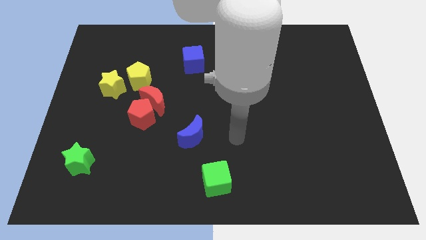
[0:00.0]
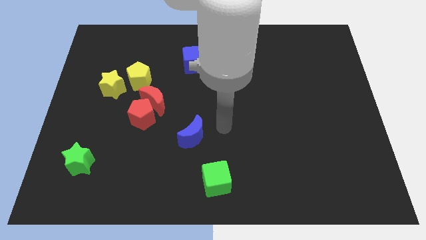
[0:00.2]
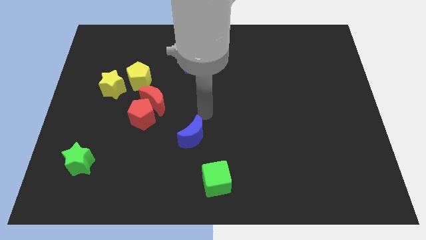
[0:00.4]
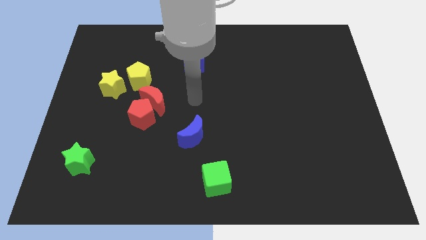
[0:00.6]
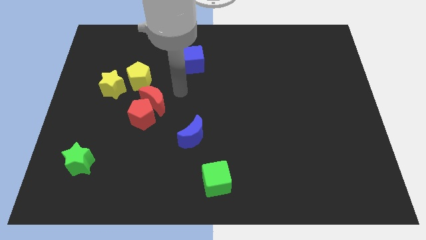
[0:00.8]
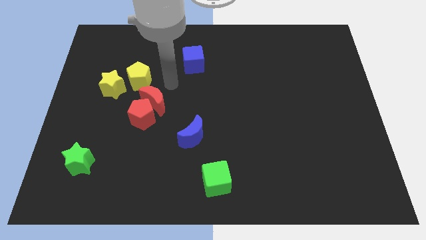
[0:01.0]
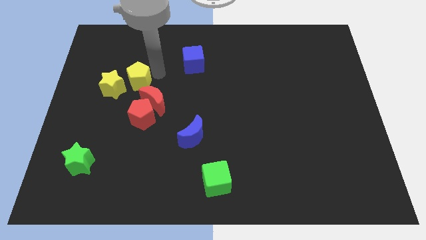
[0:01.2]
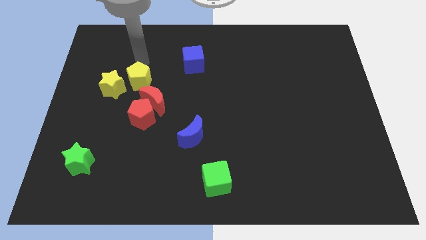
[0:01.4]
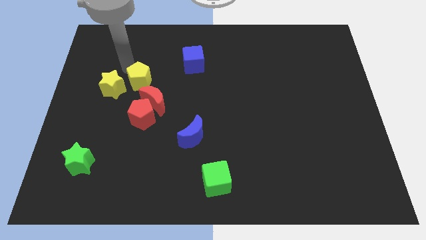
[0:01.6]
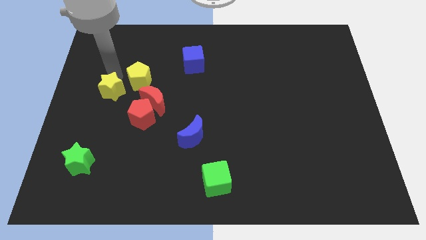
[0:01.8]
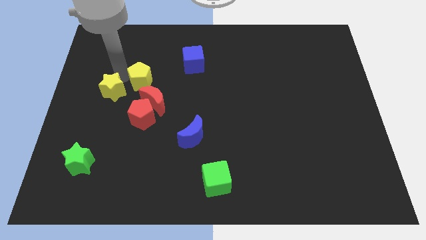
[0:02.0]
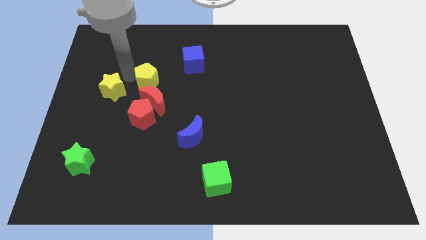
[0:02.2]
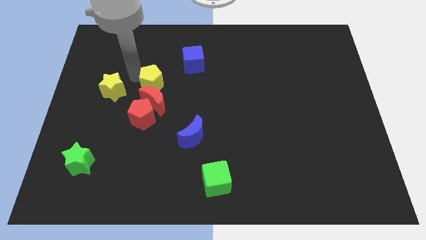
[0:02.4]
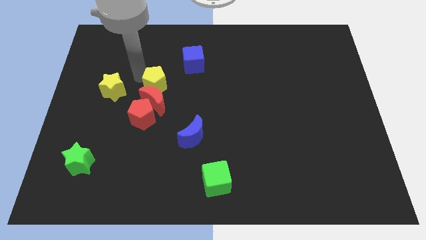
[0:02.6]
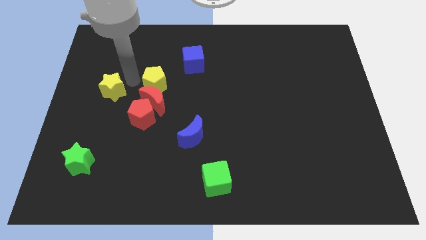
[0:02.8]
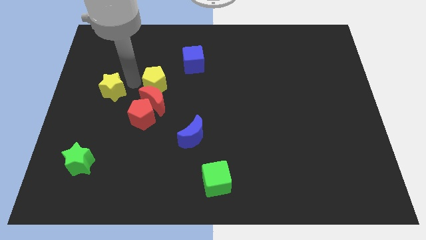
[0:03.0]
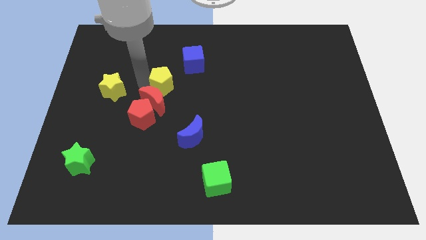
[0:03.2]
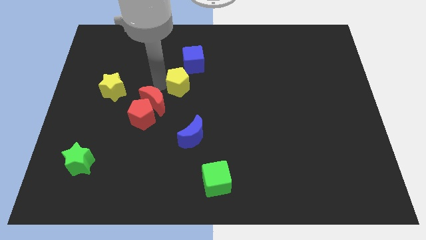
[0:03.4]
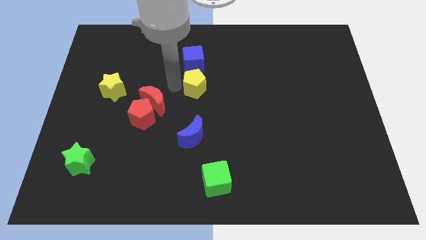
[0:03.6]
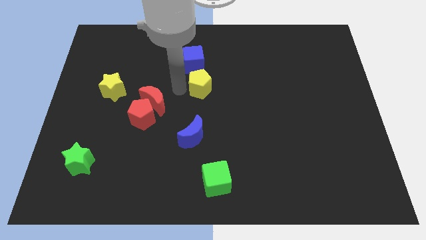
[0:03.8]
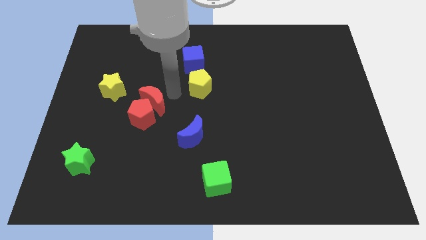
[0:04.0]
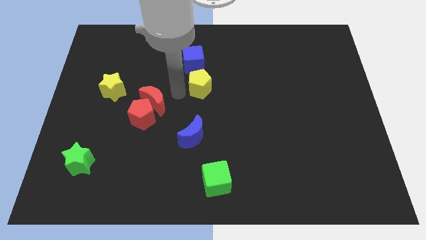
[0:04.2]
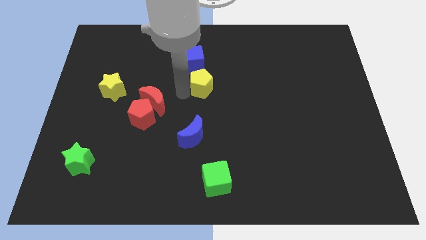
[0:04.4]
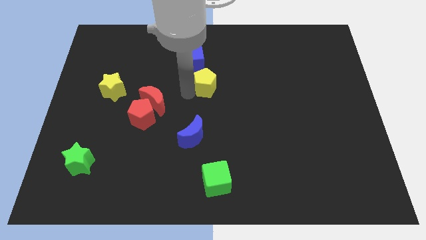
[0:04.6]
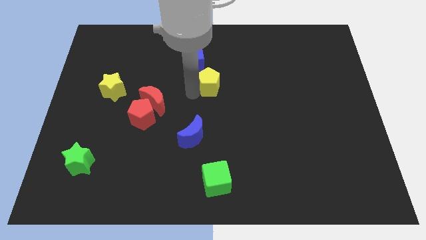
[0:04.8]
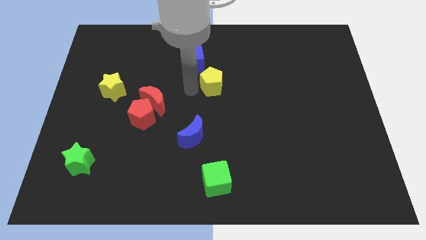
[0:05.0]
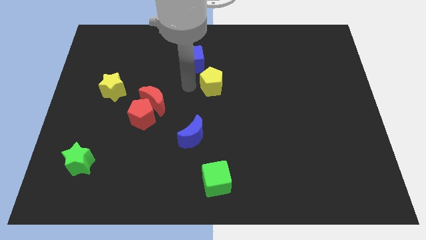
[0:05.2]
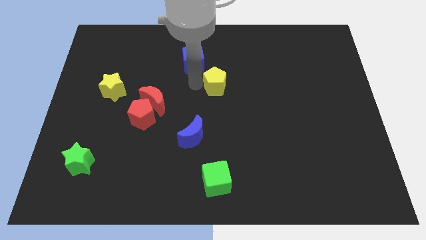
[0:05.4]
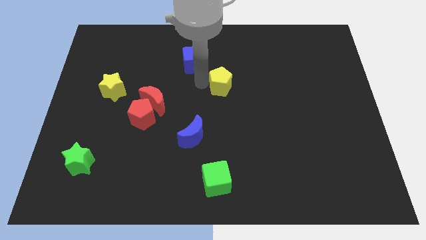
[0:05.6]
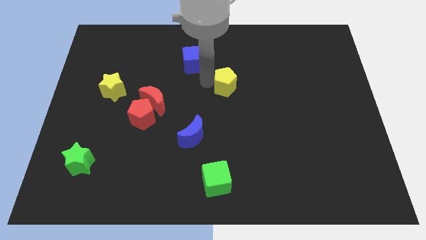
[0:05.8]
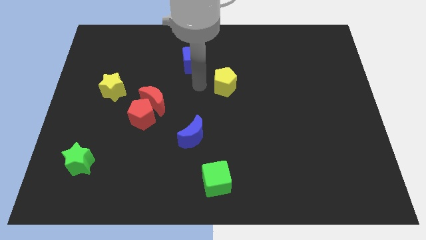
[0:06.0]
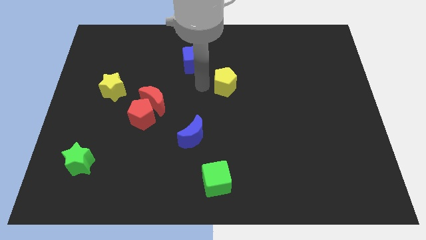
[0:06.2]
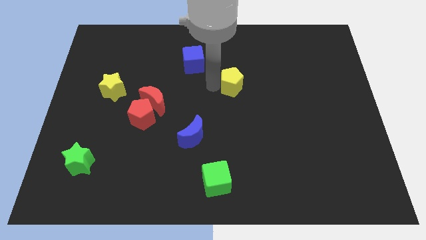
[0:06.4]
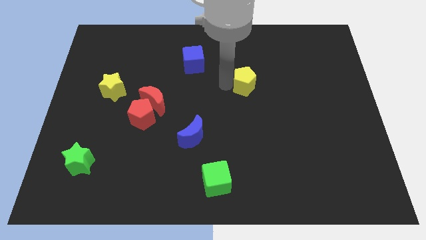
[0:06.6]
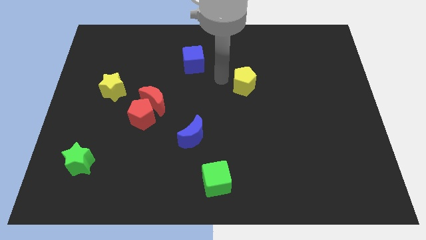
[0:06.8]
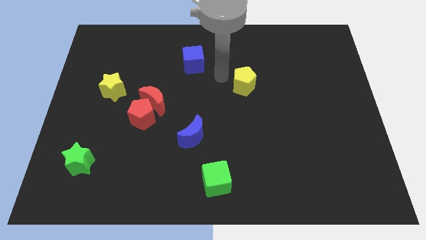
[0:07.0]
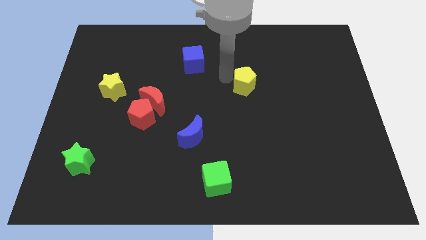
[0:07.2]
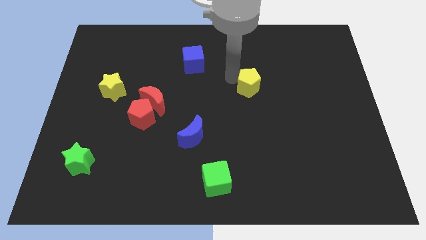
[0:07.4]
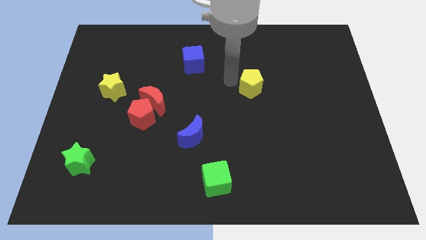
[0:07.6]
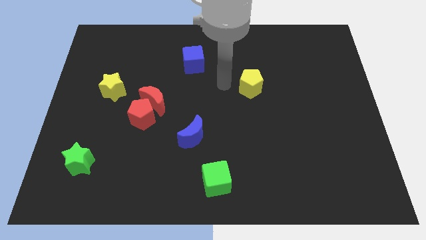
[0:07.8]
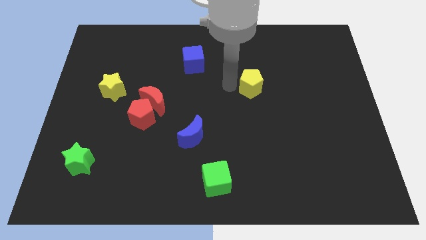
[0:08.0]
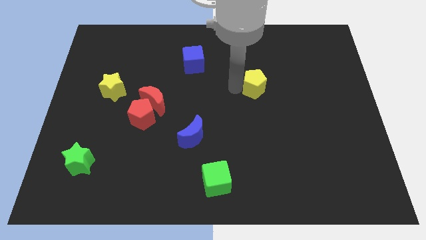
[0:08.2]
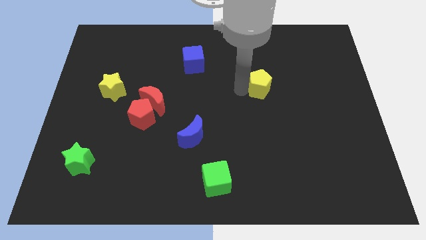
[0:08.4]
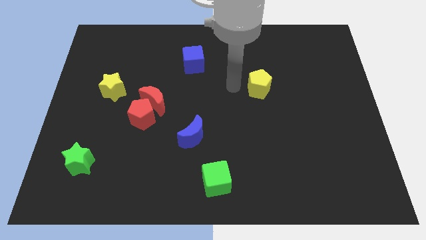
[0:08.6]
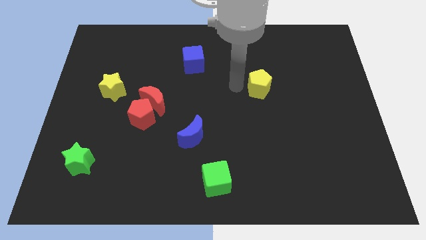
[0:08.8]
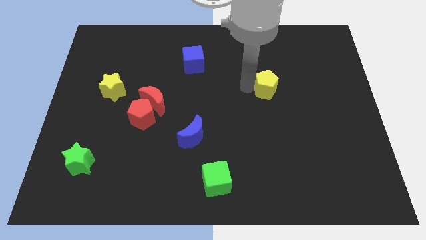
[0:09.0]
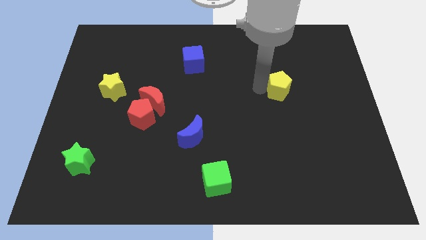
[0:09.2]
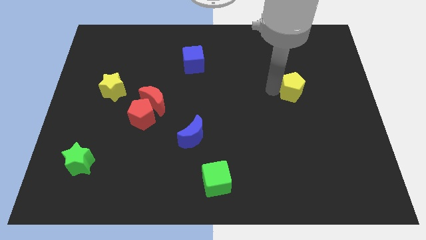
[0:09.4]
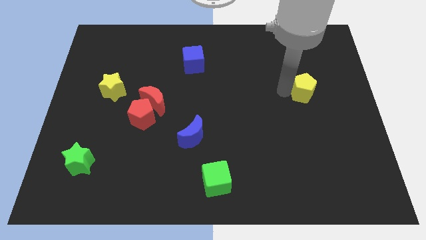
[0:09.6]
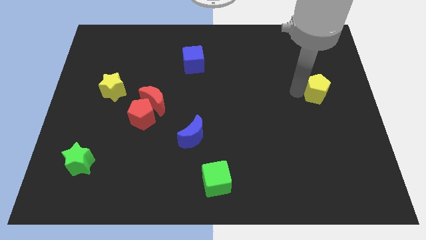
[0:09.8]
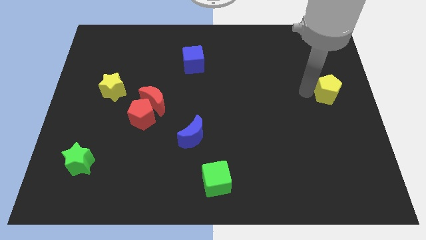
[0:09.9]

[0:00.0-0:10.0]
push the yellow pentagon to the right side of the board
